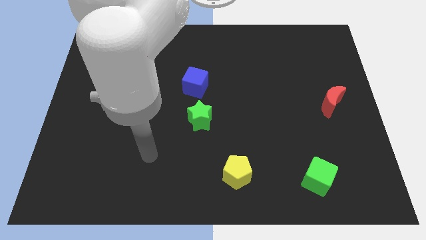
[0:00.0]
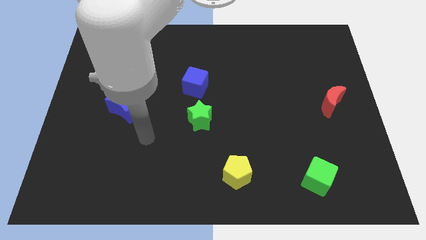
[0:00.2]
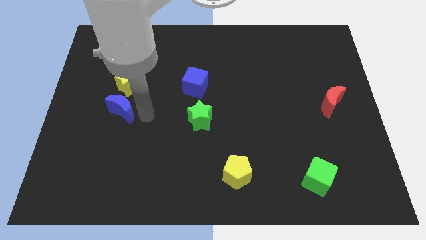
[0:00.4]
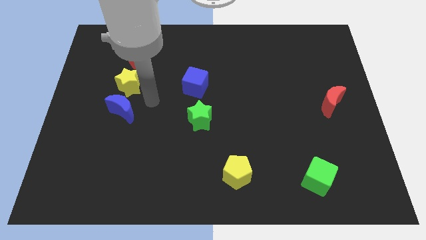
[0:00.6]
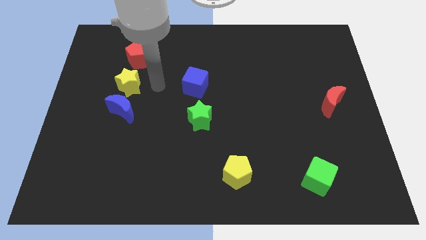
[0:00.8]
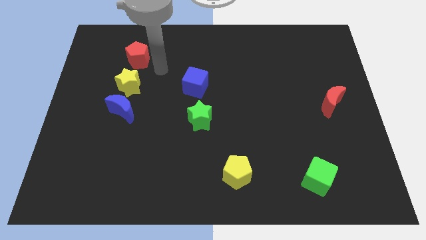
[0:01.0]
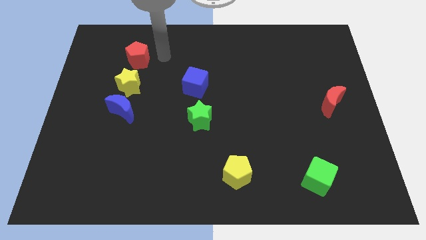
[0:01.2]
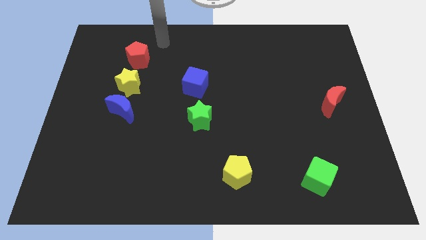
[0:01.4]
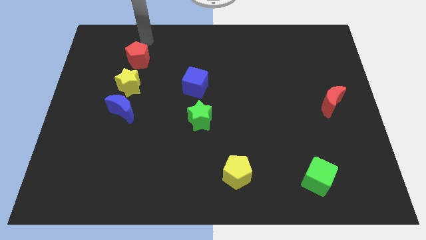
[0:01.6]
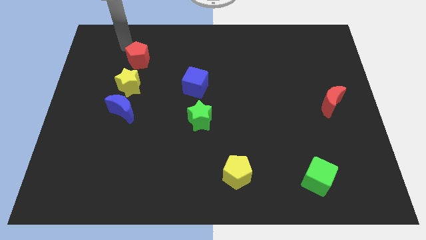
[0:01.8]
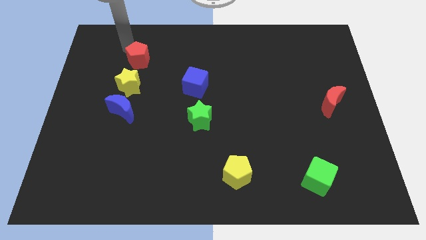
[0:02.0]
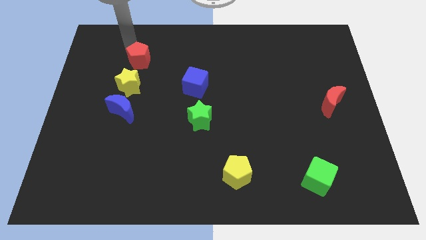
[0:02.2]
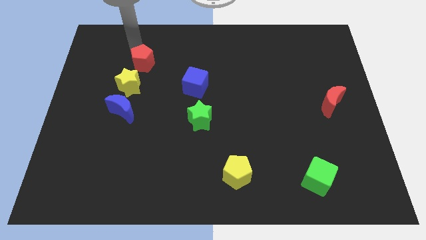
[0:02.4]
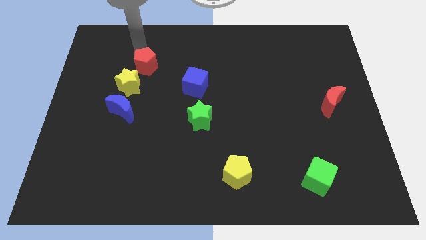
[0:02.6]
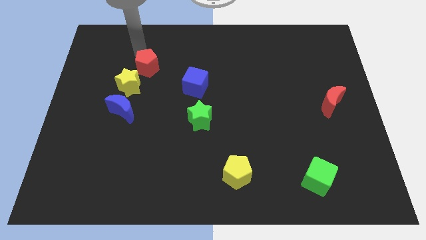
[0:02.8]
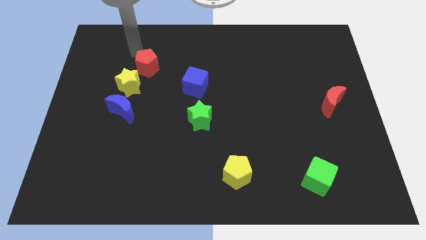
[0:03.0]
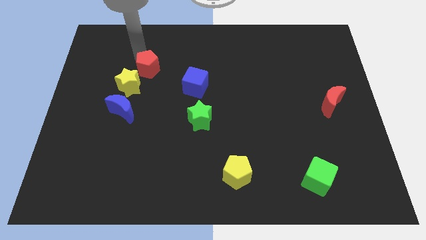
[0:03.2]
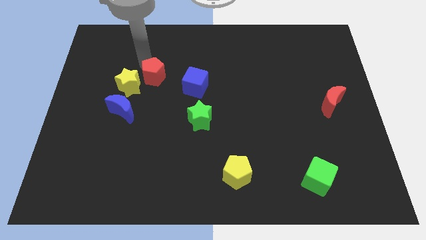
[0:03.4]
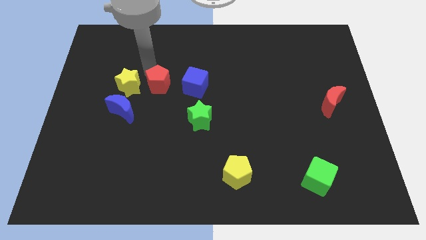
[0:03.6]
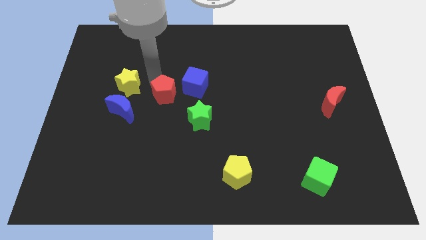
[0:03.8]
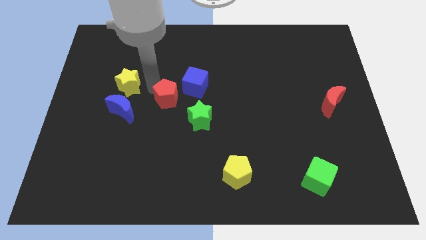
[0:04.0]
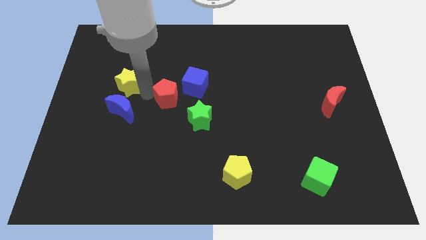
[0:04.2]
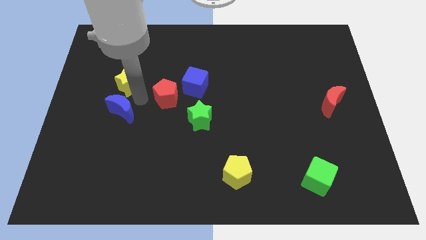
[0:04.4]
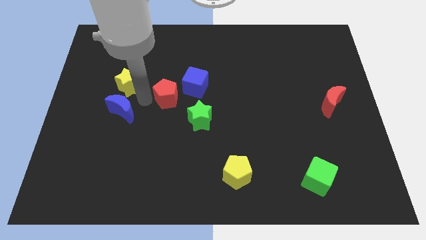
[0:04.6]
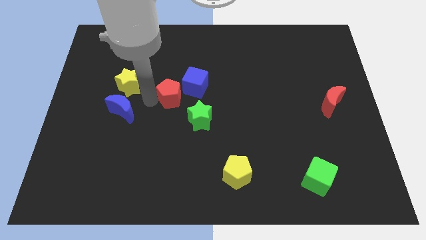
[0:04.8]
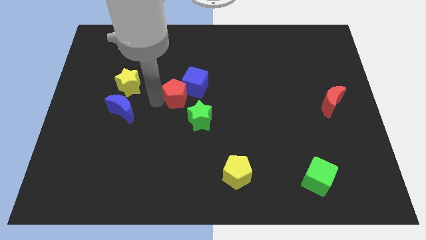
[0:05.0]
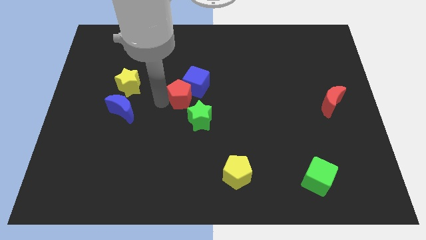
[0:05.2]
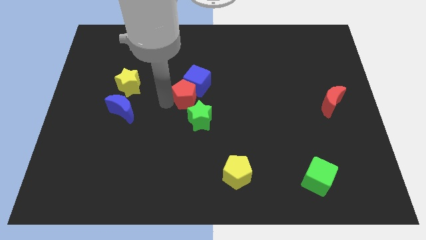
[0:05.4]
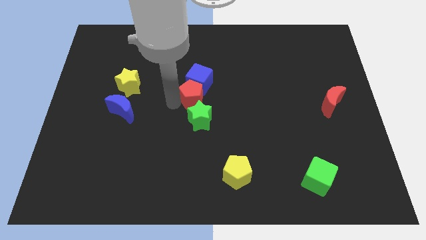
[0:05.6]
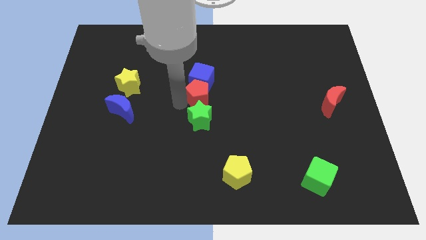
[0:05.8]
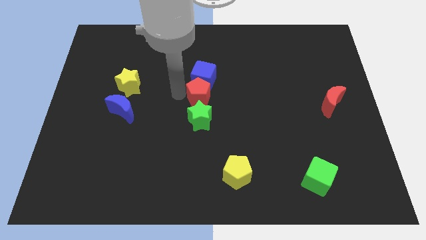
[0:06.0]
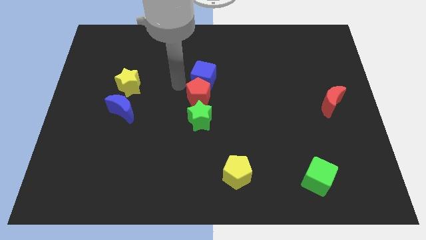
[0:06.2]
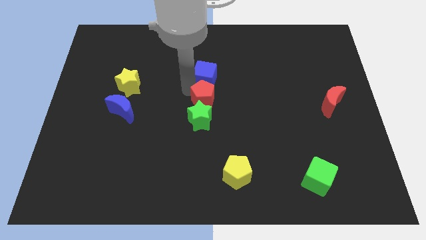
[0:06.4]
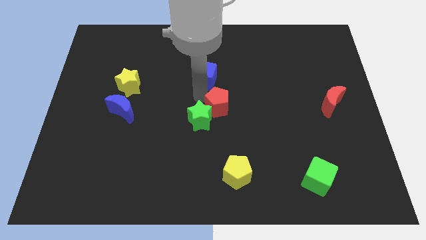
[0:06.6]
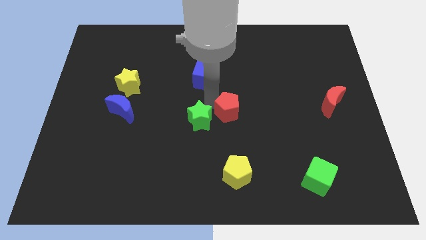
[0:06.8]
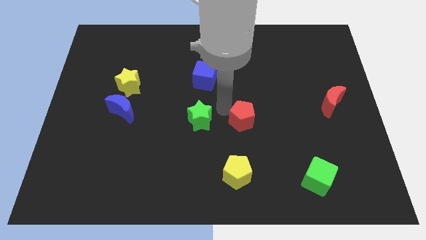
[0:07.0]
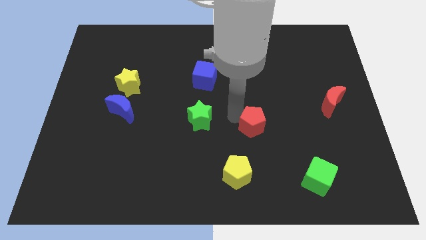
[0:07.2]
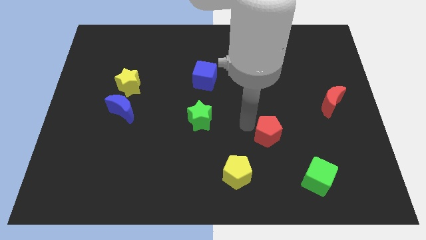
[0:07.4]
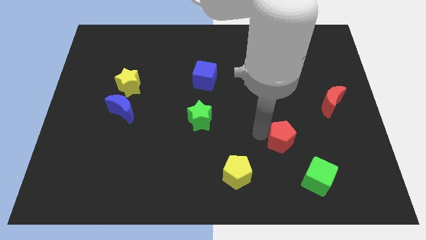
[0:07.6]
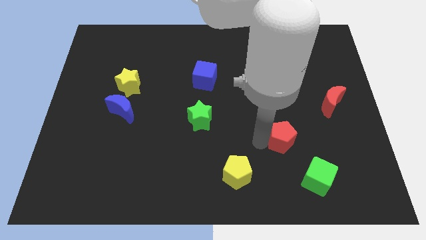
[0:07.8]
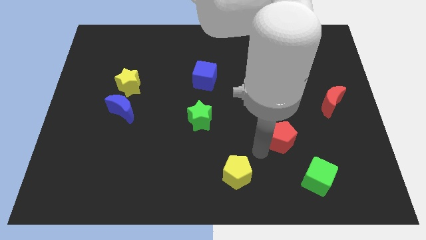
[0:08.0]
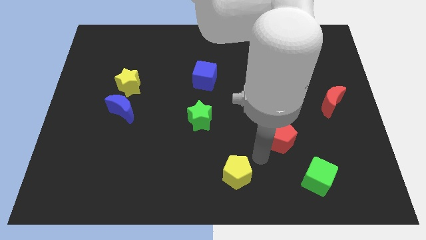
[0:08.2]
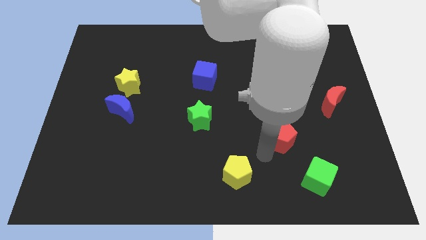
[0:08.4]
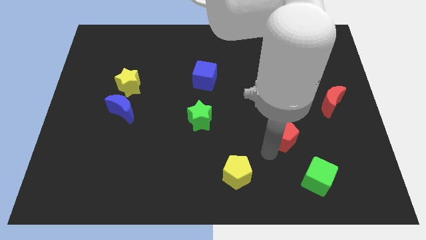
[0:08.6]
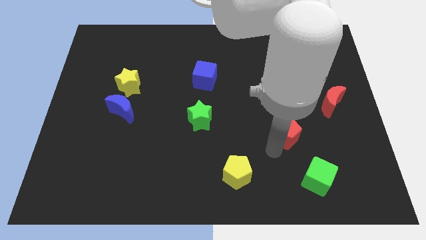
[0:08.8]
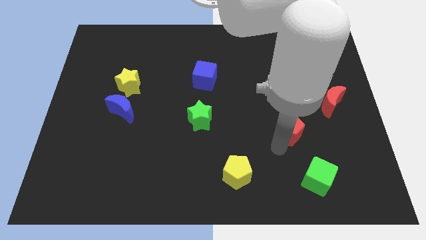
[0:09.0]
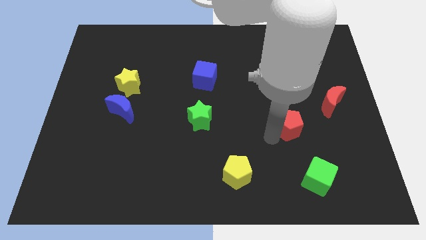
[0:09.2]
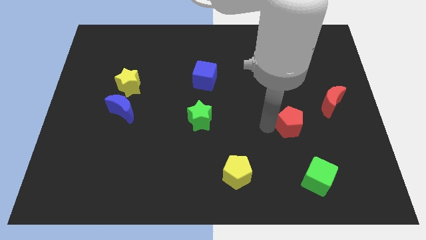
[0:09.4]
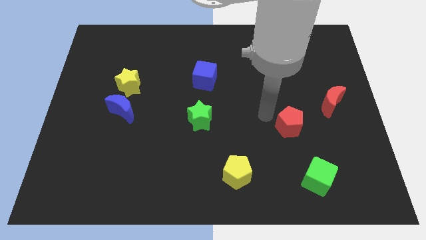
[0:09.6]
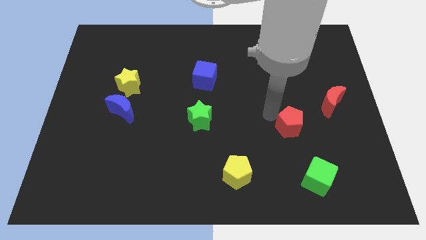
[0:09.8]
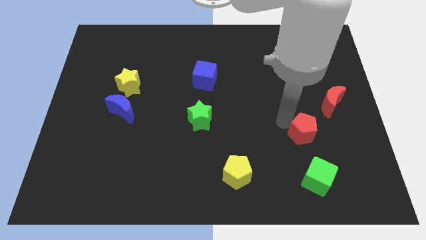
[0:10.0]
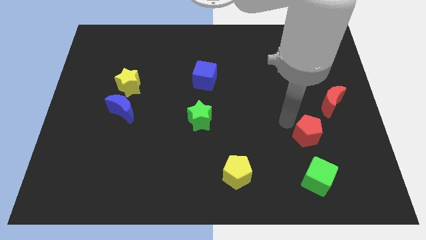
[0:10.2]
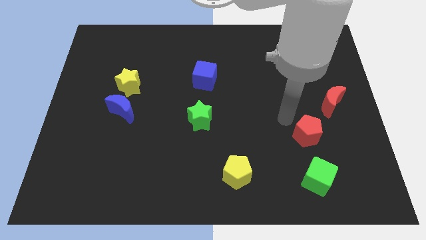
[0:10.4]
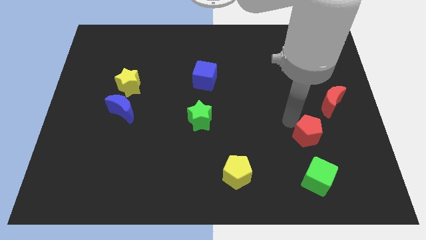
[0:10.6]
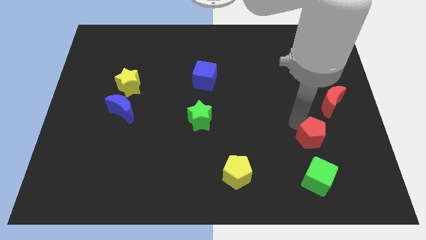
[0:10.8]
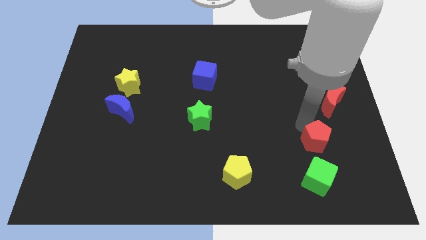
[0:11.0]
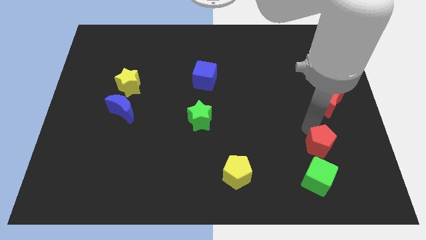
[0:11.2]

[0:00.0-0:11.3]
push the red pentagon to the top right of the green cube

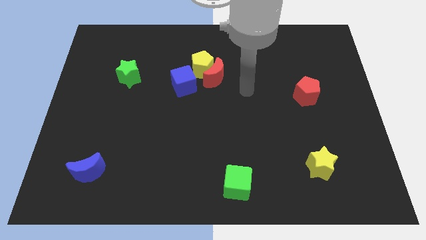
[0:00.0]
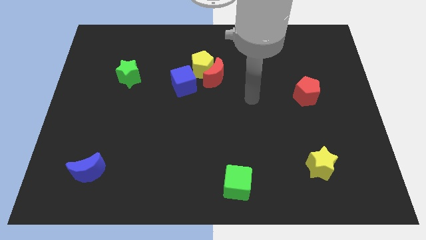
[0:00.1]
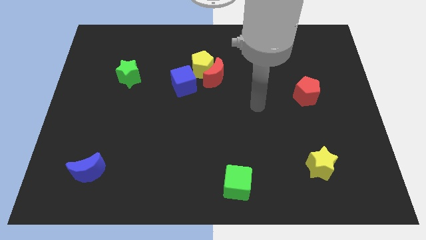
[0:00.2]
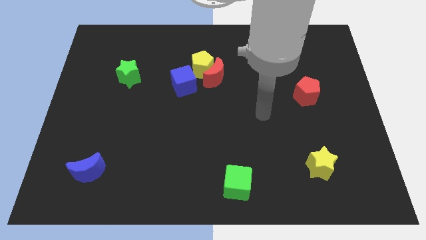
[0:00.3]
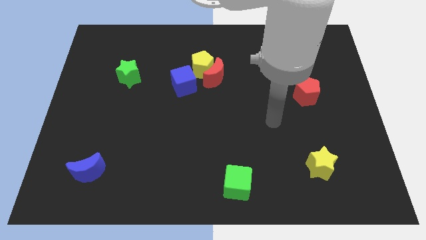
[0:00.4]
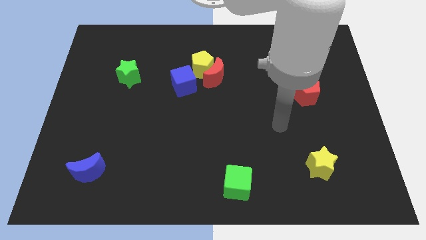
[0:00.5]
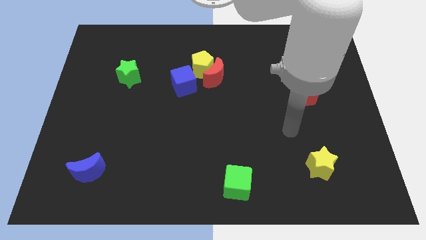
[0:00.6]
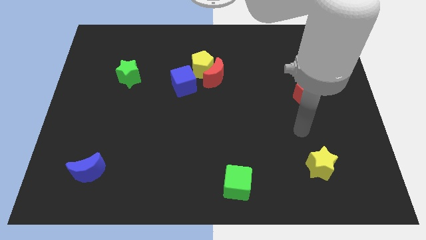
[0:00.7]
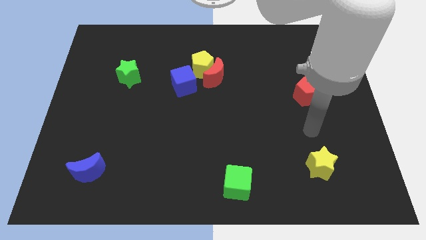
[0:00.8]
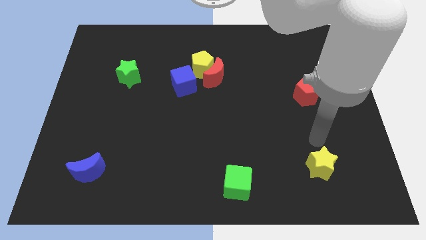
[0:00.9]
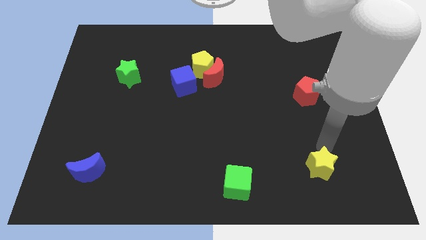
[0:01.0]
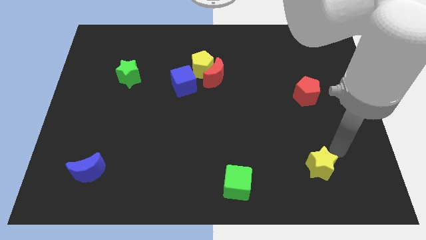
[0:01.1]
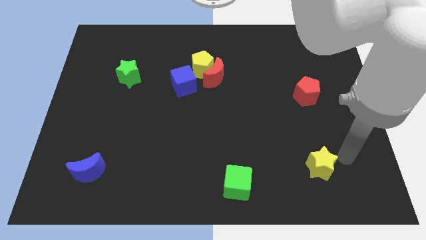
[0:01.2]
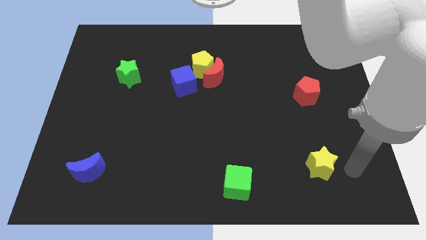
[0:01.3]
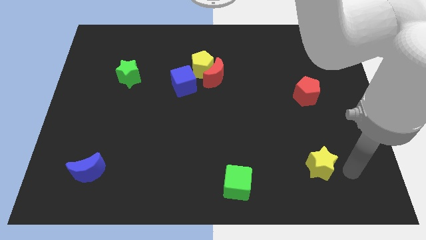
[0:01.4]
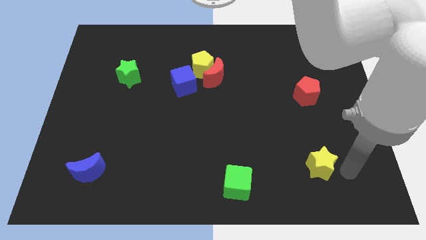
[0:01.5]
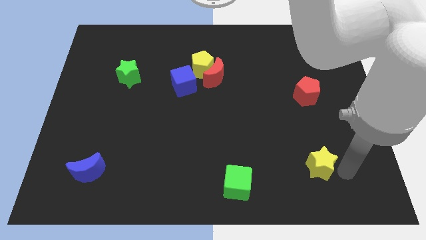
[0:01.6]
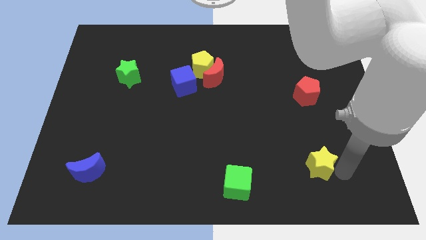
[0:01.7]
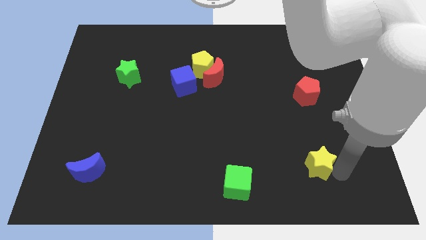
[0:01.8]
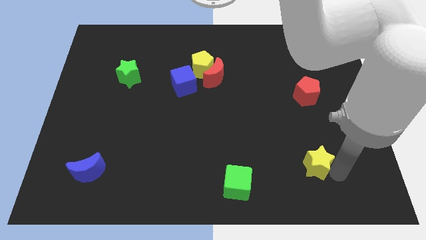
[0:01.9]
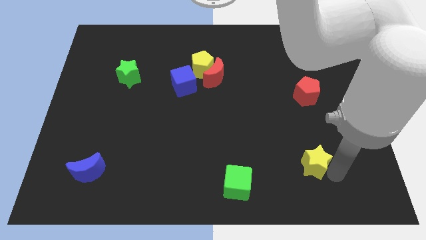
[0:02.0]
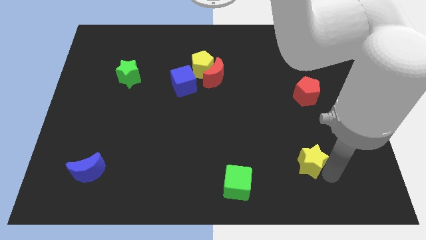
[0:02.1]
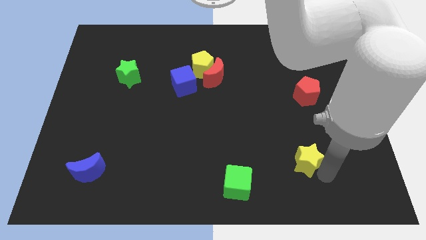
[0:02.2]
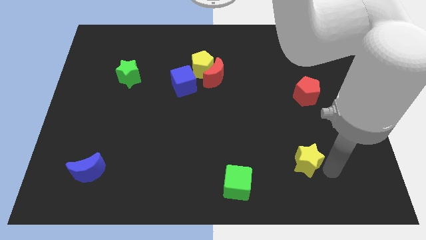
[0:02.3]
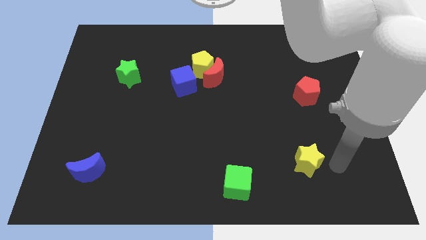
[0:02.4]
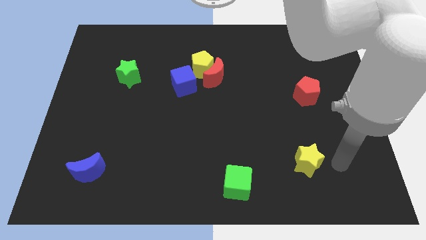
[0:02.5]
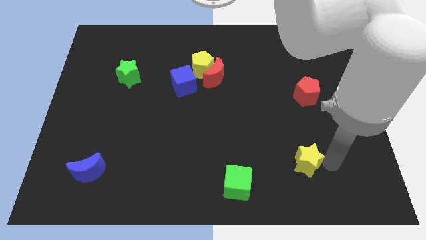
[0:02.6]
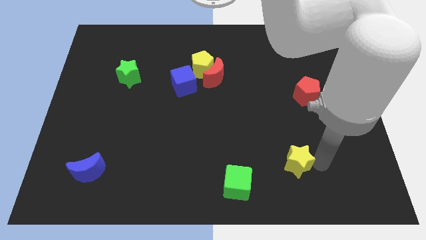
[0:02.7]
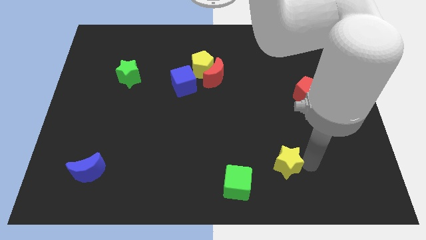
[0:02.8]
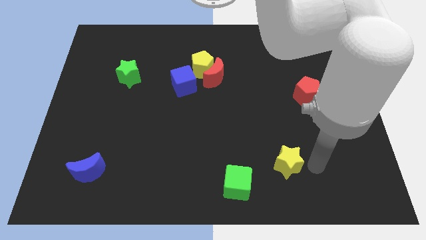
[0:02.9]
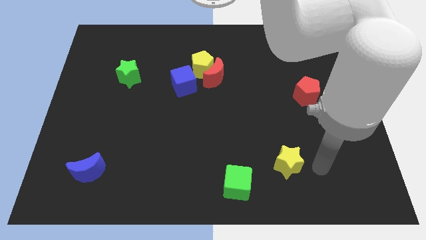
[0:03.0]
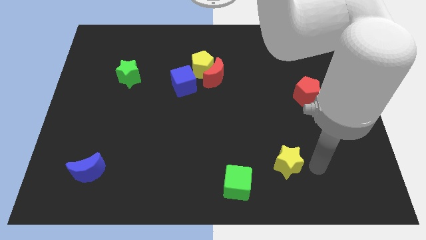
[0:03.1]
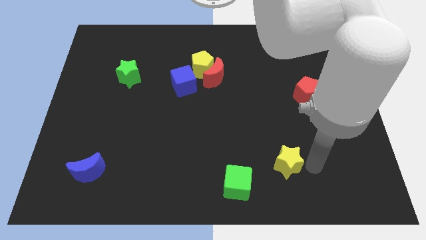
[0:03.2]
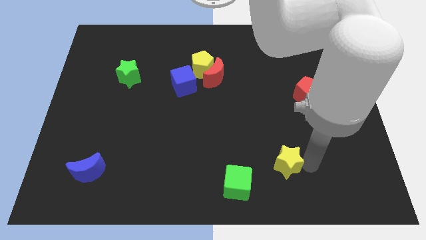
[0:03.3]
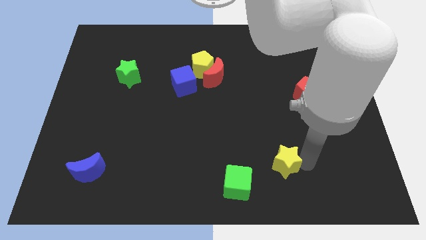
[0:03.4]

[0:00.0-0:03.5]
push the yellow star diagonally up and to the right of the green cube
